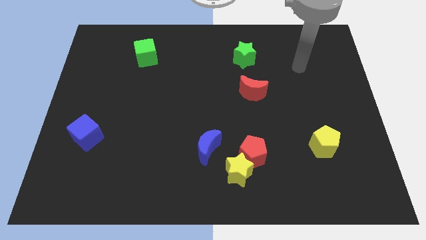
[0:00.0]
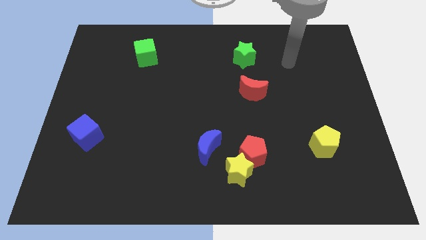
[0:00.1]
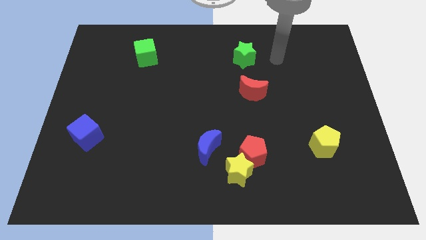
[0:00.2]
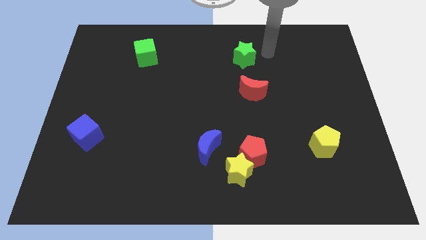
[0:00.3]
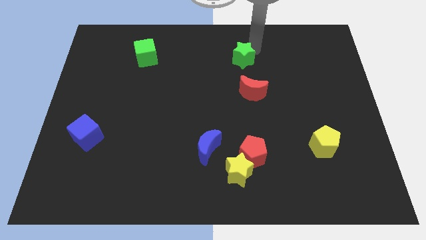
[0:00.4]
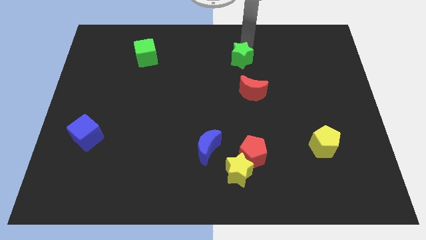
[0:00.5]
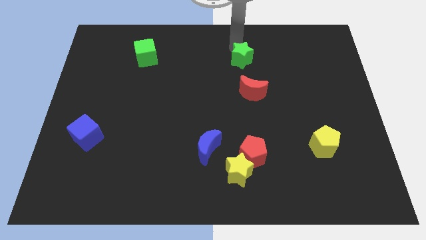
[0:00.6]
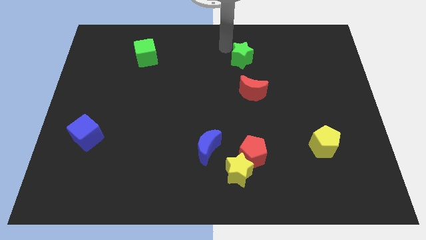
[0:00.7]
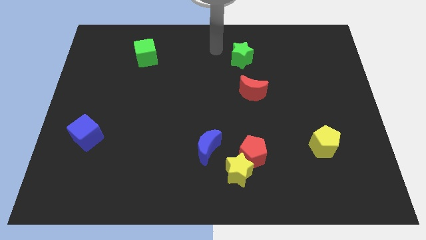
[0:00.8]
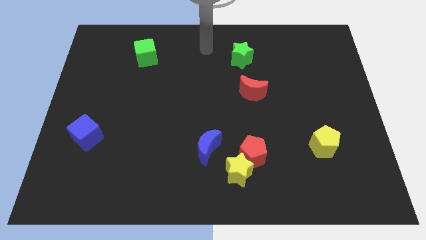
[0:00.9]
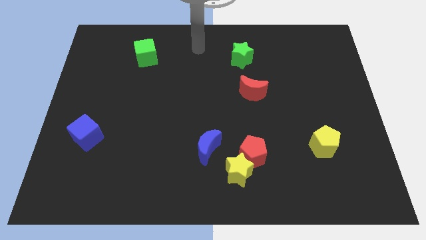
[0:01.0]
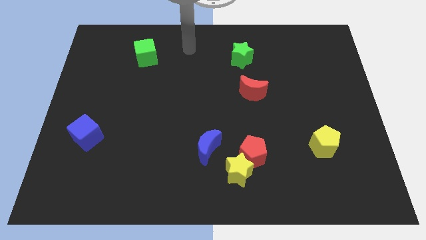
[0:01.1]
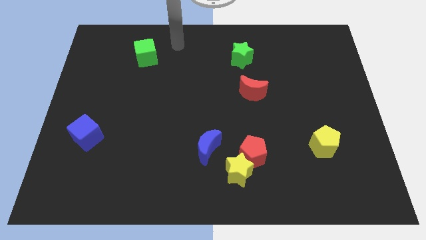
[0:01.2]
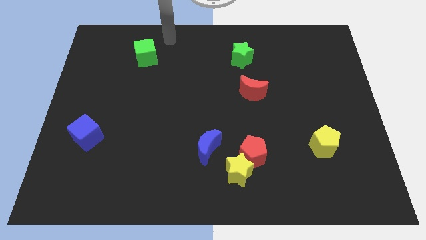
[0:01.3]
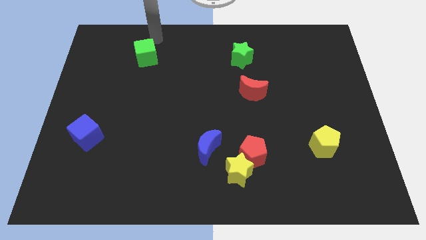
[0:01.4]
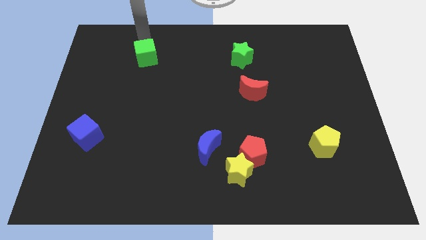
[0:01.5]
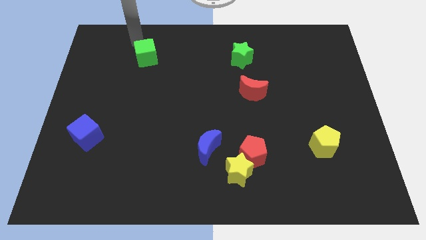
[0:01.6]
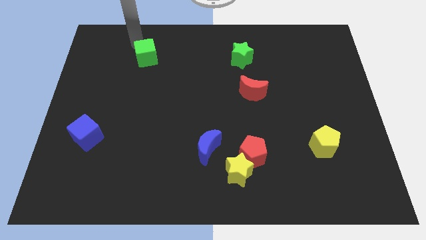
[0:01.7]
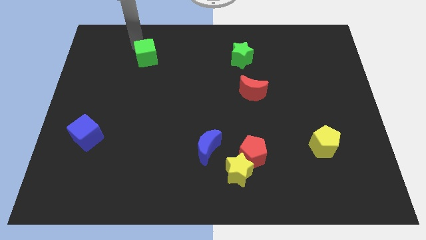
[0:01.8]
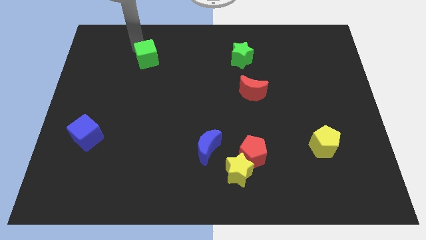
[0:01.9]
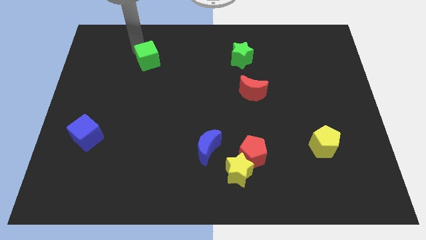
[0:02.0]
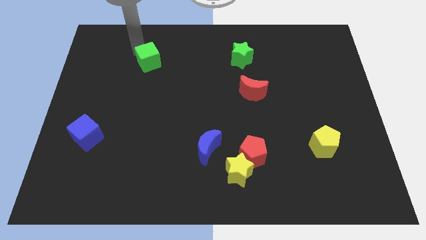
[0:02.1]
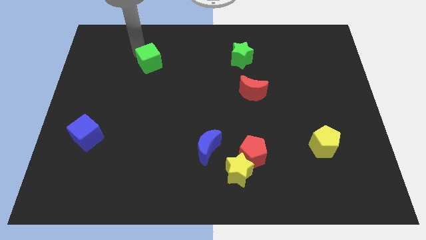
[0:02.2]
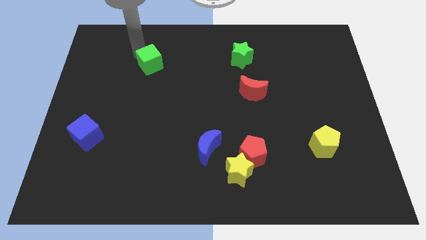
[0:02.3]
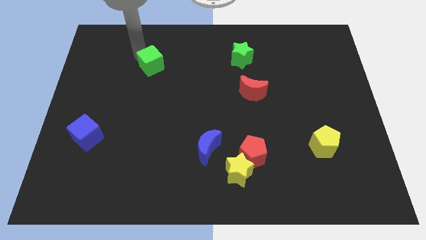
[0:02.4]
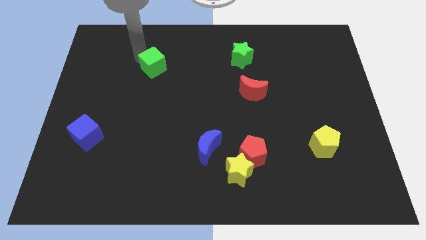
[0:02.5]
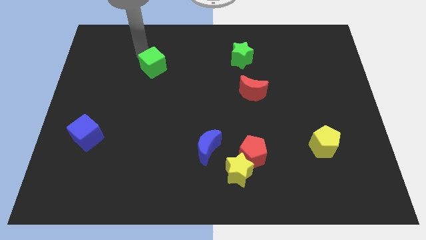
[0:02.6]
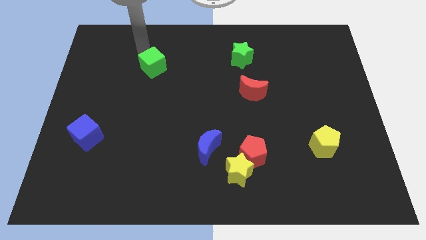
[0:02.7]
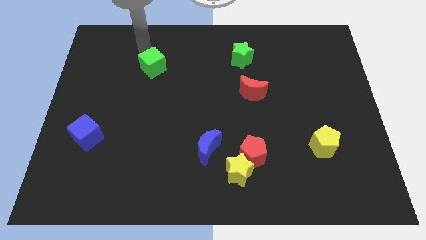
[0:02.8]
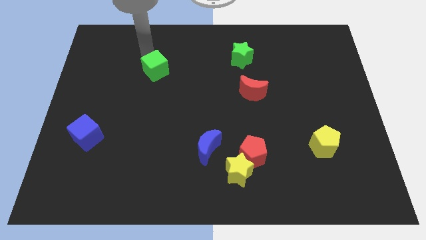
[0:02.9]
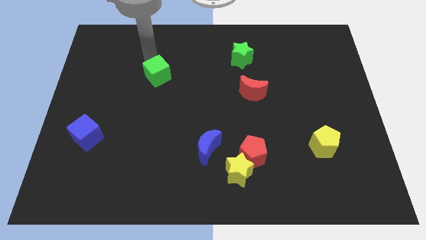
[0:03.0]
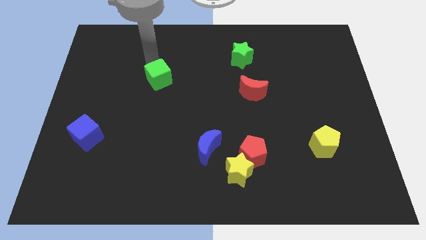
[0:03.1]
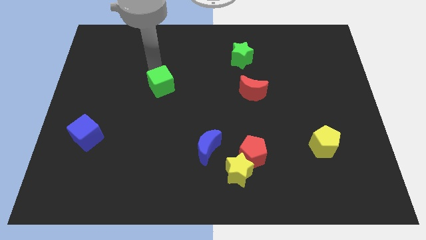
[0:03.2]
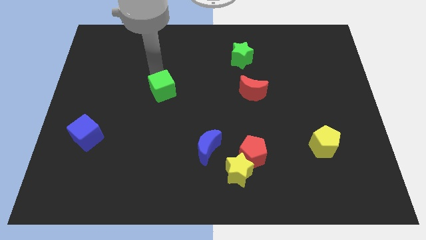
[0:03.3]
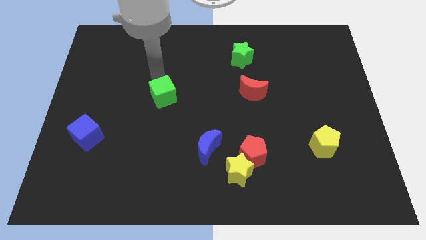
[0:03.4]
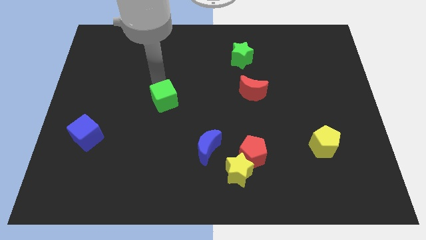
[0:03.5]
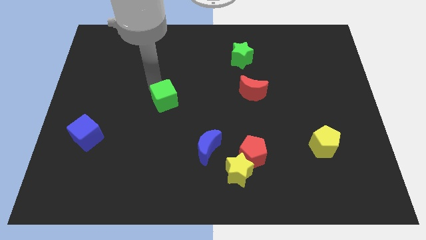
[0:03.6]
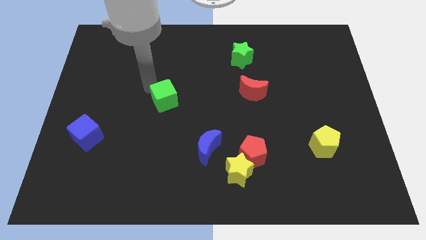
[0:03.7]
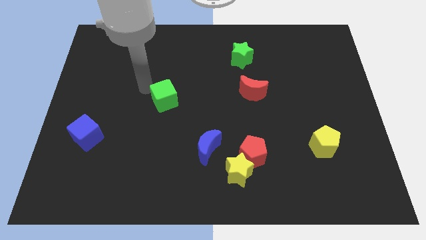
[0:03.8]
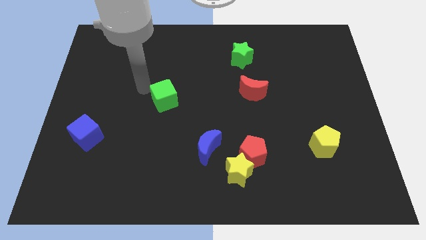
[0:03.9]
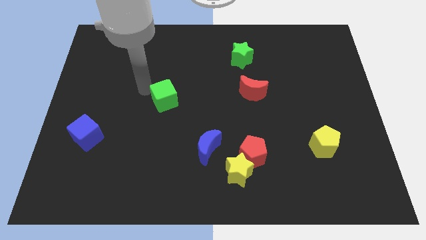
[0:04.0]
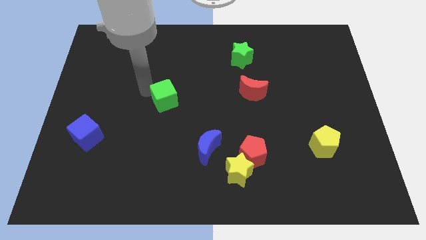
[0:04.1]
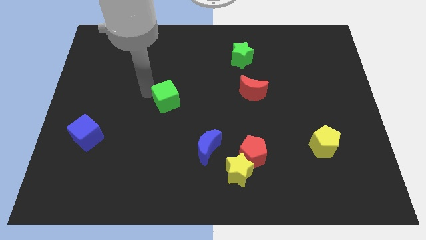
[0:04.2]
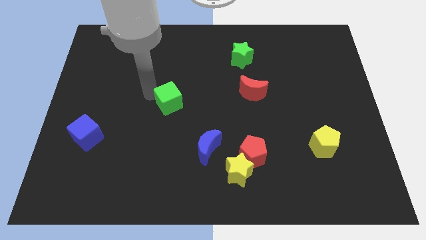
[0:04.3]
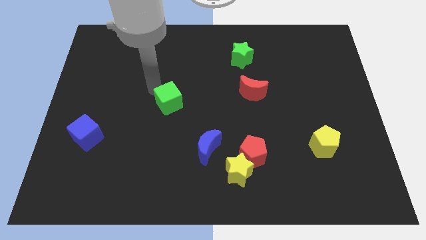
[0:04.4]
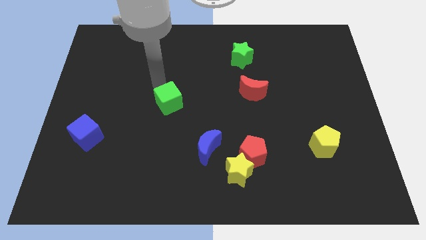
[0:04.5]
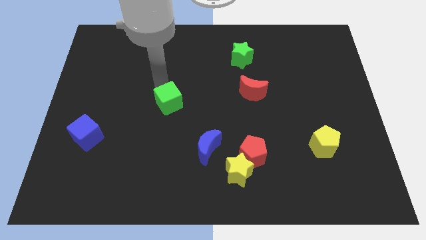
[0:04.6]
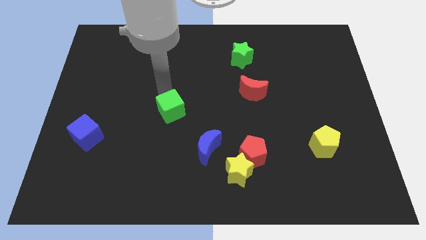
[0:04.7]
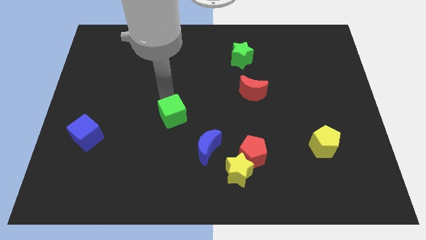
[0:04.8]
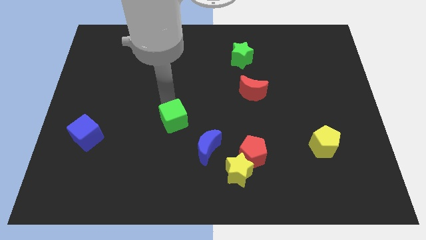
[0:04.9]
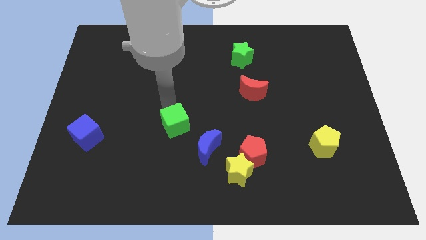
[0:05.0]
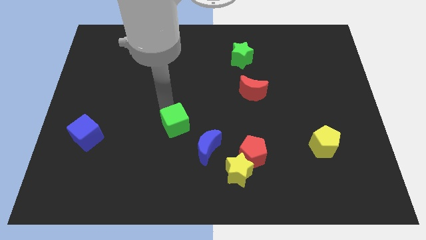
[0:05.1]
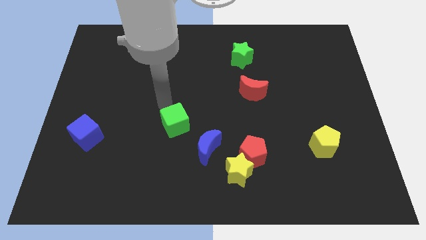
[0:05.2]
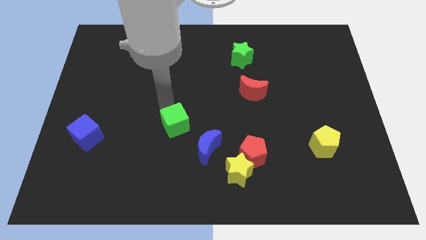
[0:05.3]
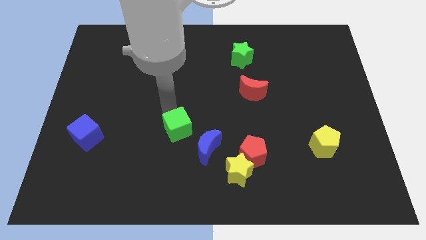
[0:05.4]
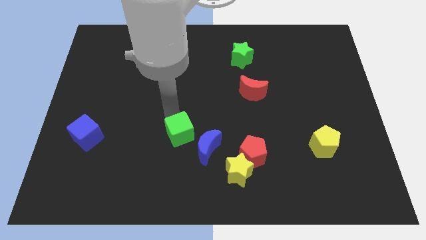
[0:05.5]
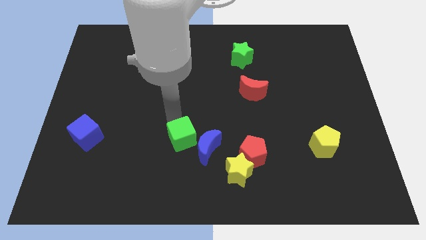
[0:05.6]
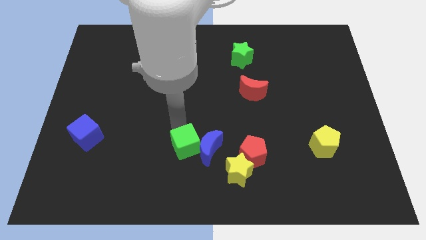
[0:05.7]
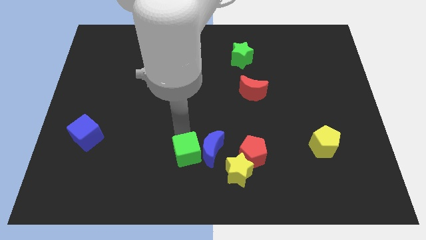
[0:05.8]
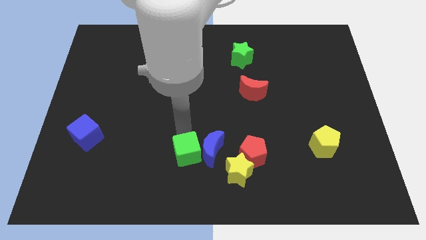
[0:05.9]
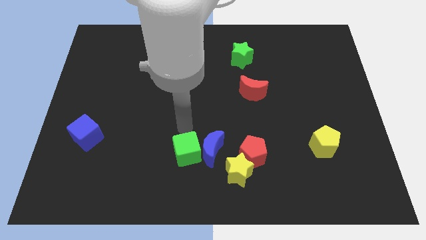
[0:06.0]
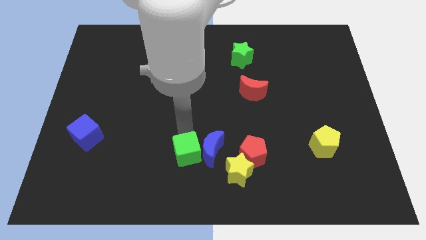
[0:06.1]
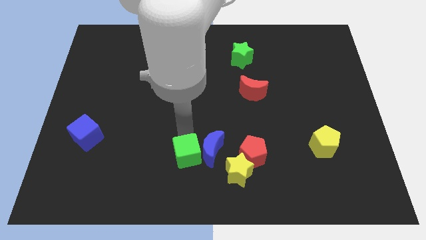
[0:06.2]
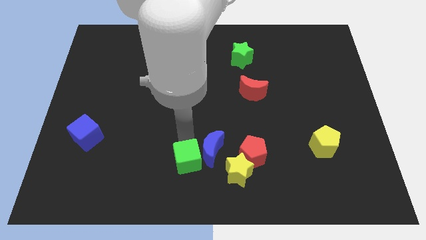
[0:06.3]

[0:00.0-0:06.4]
push the green cube to the bottom side
